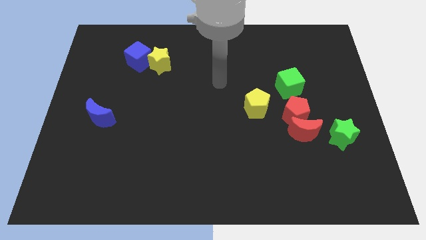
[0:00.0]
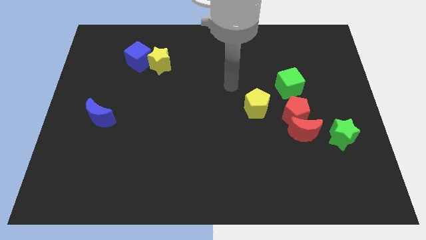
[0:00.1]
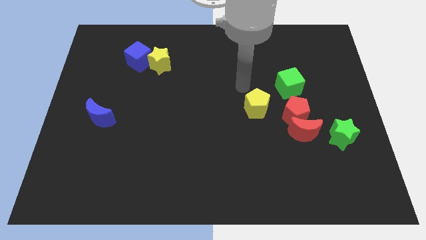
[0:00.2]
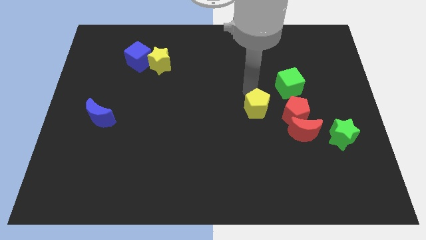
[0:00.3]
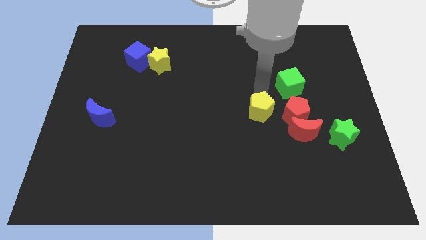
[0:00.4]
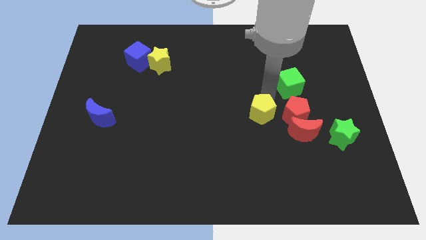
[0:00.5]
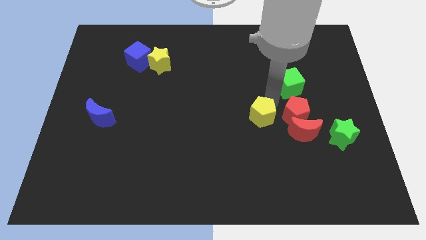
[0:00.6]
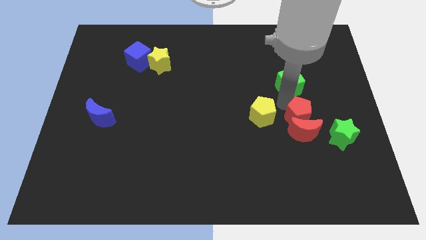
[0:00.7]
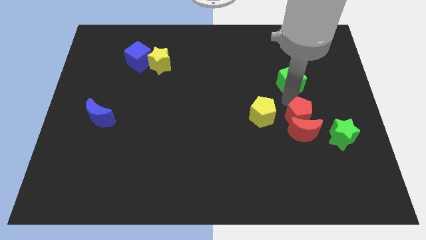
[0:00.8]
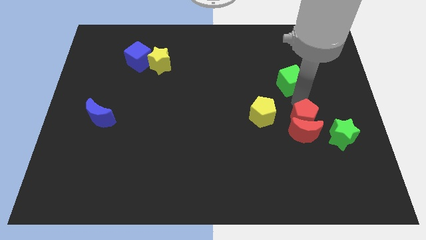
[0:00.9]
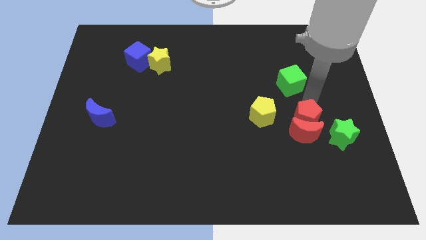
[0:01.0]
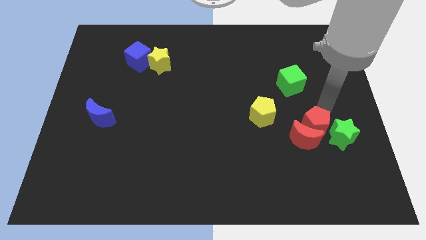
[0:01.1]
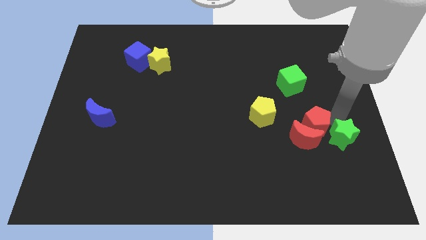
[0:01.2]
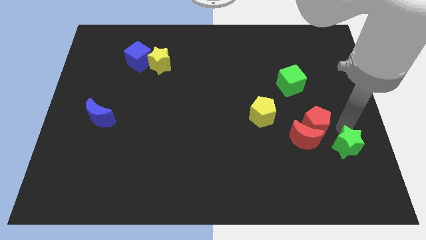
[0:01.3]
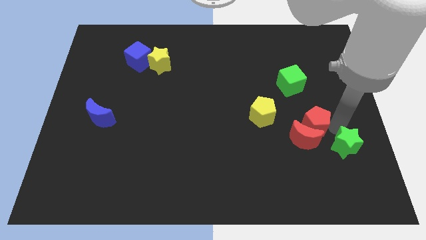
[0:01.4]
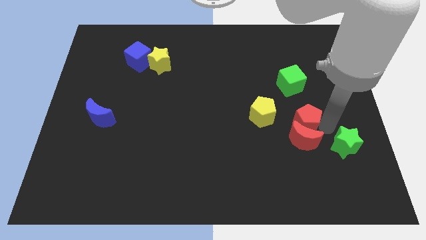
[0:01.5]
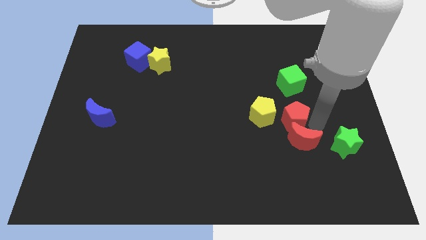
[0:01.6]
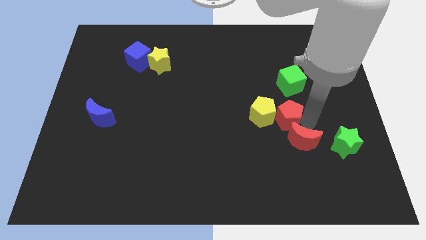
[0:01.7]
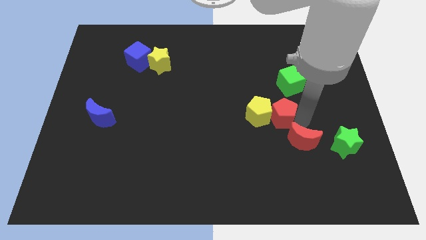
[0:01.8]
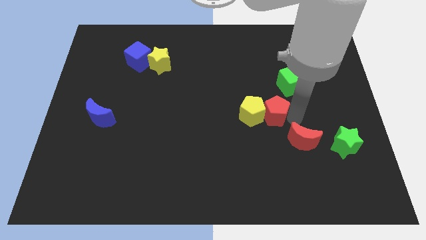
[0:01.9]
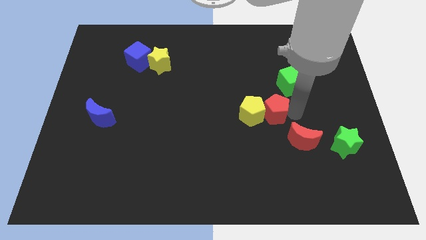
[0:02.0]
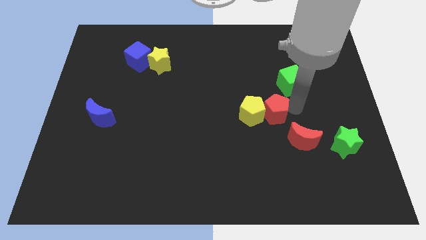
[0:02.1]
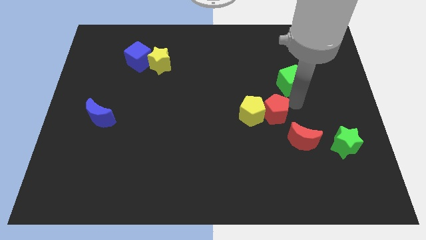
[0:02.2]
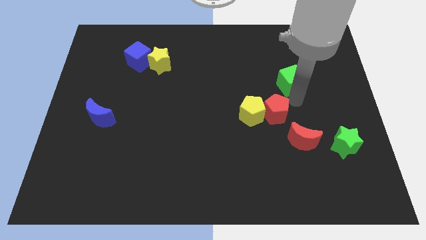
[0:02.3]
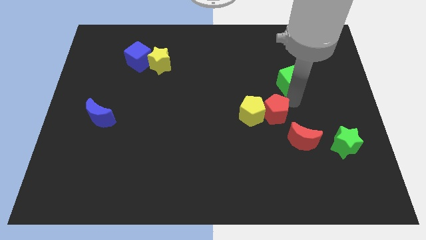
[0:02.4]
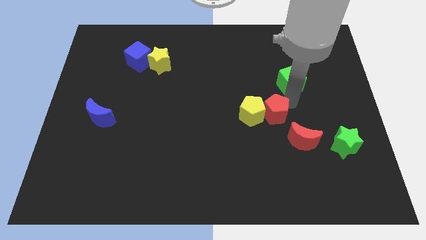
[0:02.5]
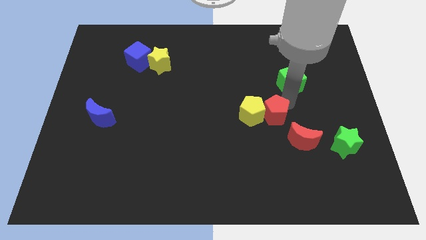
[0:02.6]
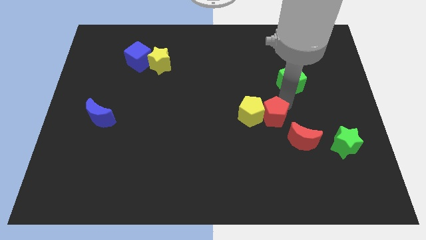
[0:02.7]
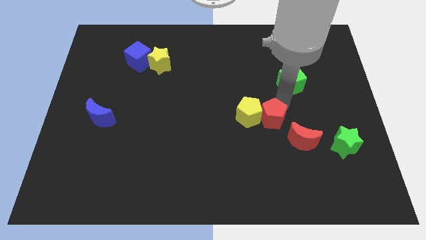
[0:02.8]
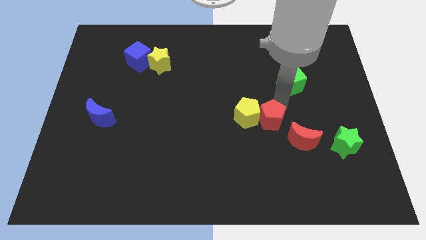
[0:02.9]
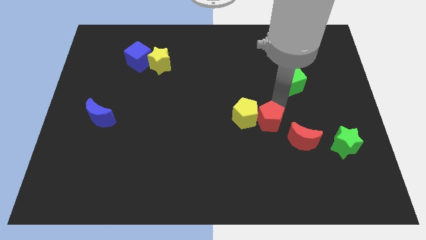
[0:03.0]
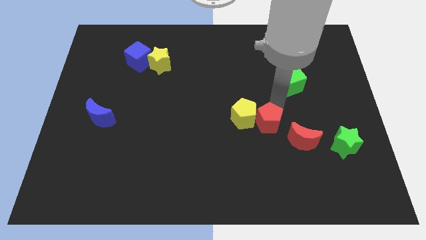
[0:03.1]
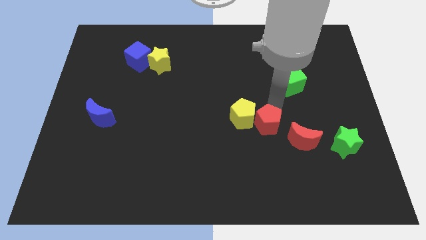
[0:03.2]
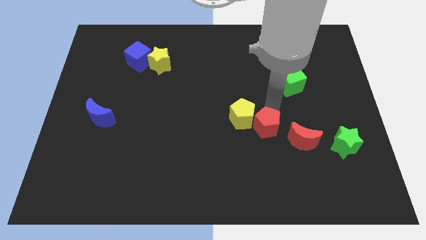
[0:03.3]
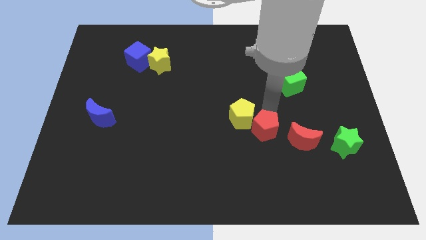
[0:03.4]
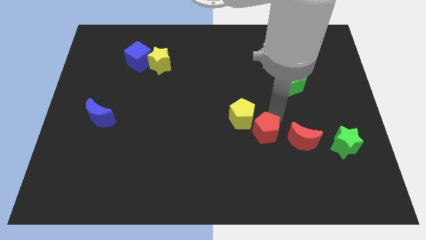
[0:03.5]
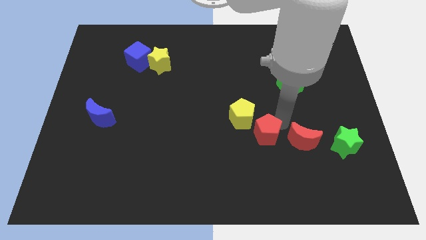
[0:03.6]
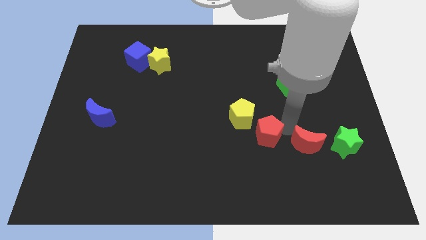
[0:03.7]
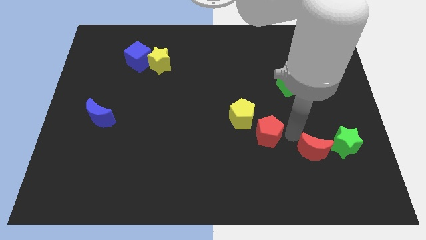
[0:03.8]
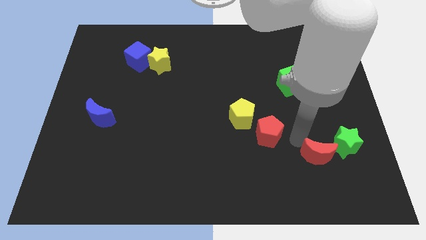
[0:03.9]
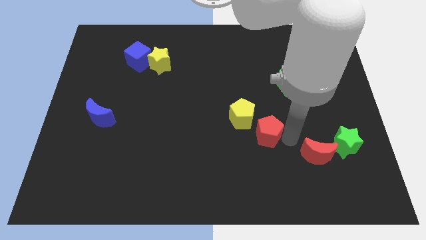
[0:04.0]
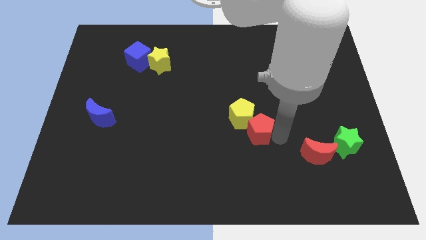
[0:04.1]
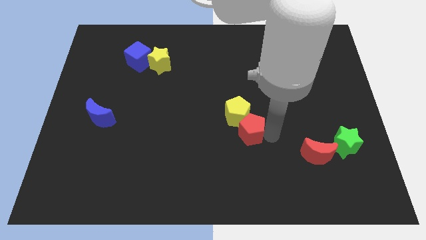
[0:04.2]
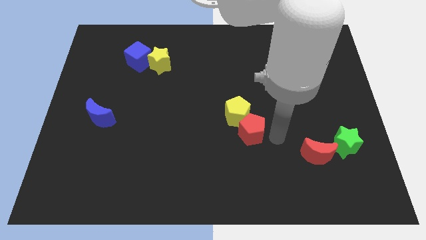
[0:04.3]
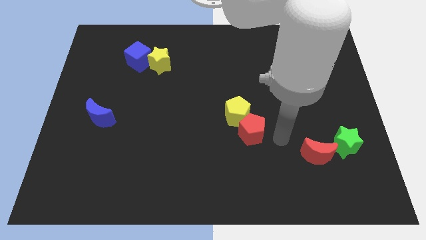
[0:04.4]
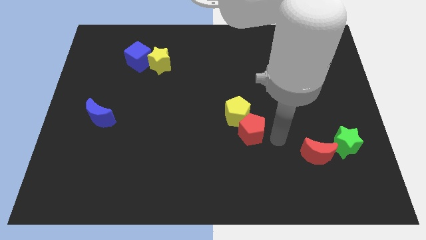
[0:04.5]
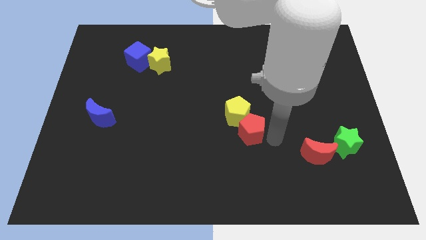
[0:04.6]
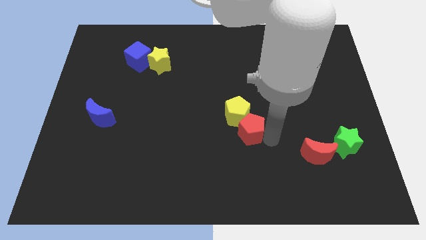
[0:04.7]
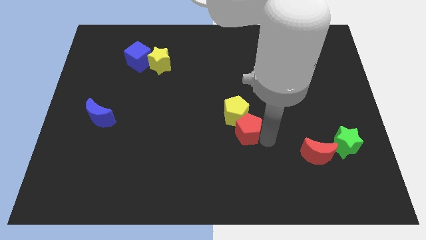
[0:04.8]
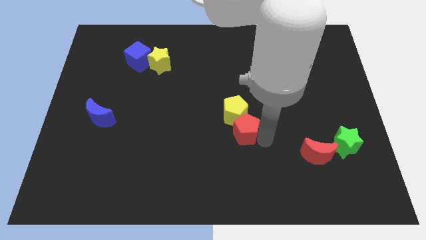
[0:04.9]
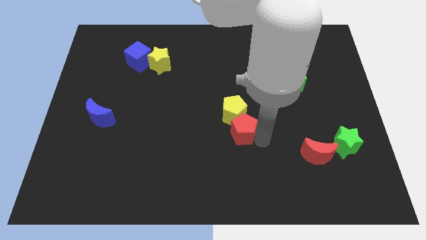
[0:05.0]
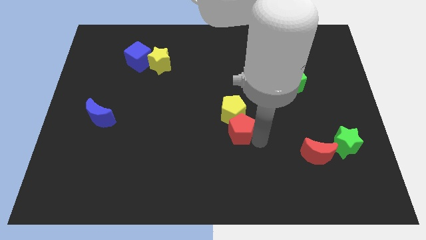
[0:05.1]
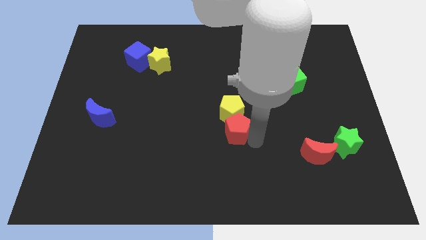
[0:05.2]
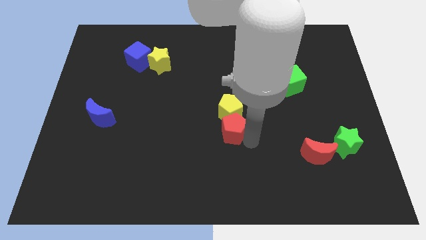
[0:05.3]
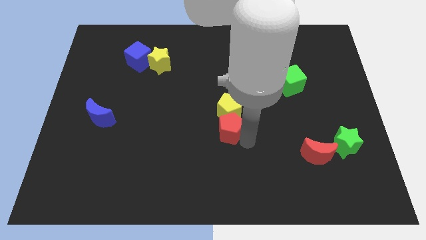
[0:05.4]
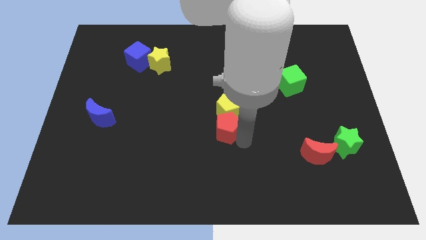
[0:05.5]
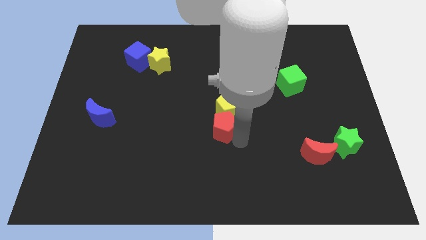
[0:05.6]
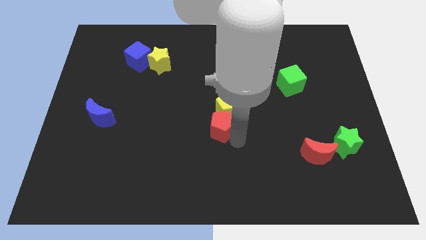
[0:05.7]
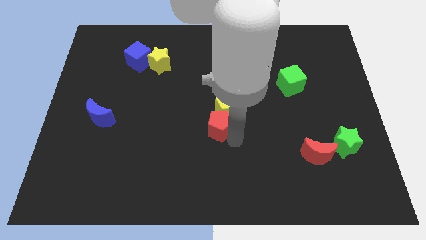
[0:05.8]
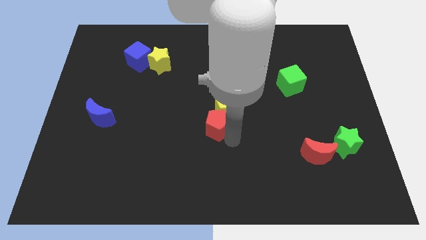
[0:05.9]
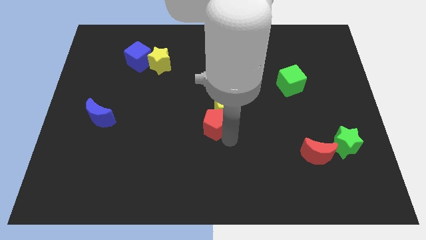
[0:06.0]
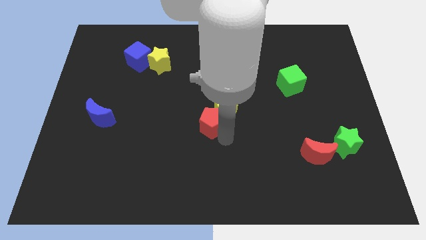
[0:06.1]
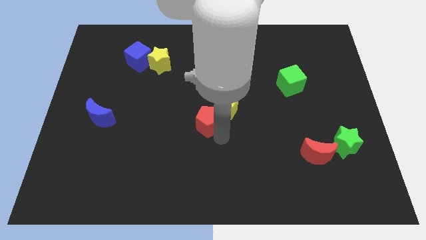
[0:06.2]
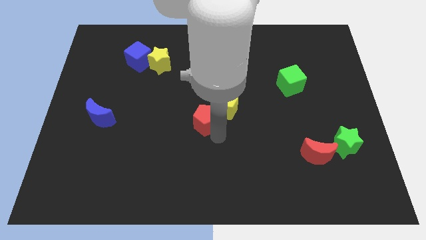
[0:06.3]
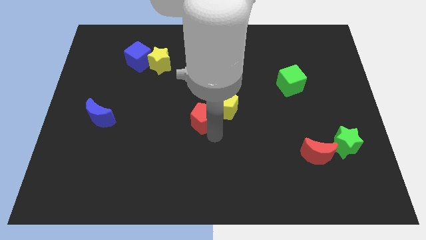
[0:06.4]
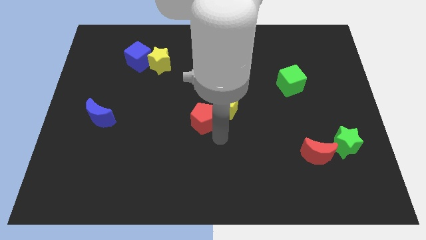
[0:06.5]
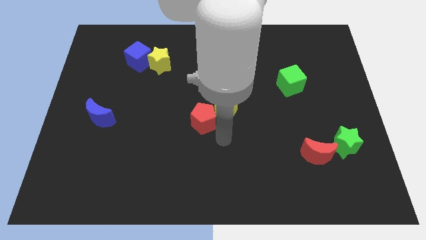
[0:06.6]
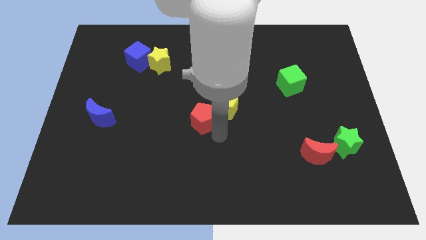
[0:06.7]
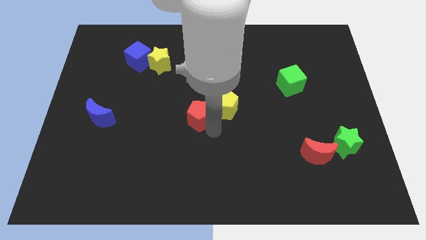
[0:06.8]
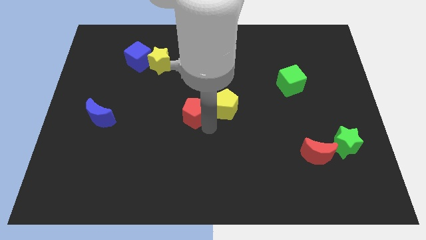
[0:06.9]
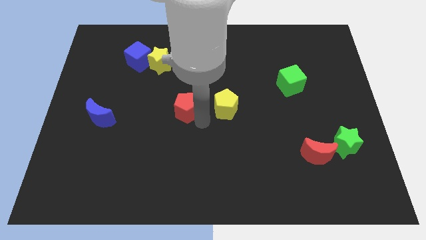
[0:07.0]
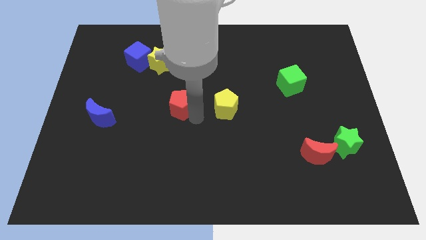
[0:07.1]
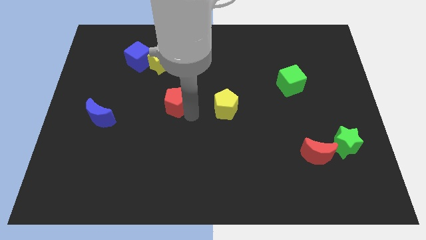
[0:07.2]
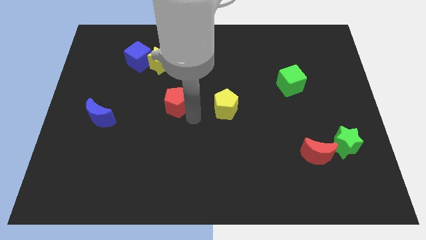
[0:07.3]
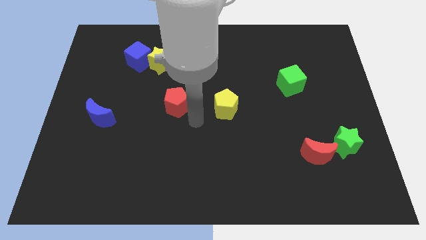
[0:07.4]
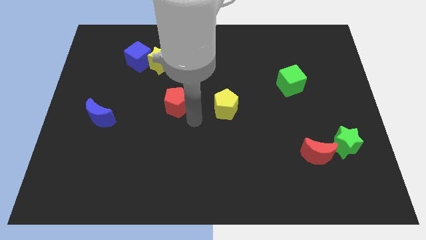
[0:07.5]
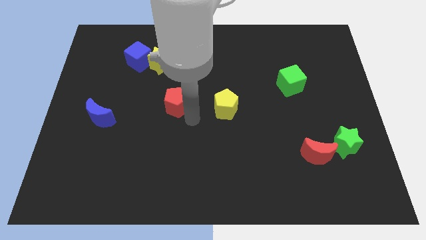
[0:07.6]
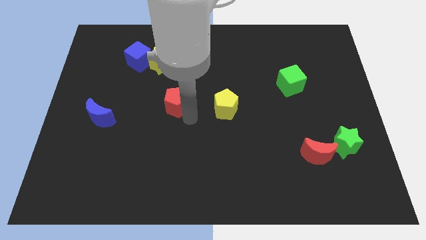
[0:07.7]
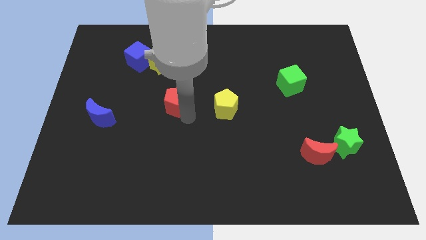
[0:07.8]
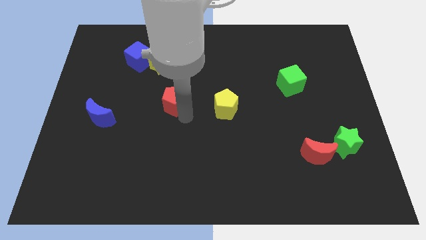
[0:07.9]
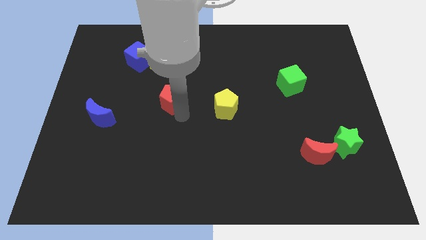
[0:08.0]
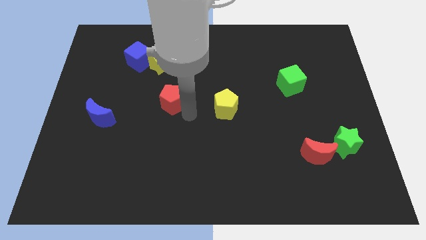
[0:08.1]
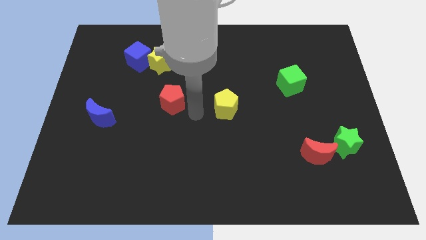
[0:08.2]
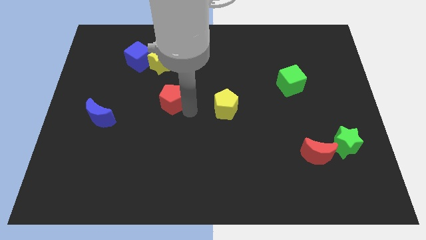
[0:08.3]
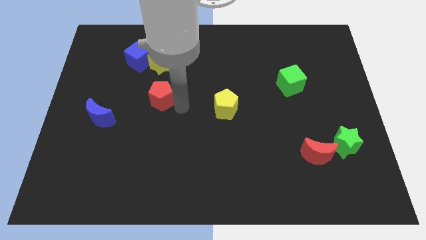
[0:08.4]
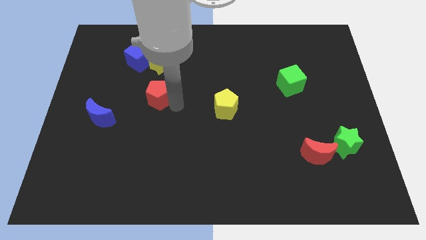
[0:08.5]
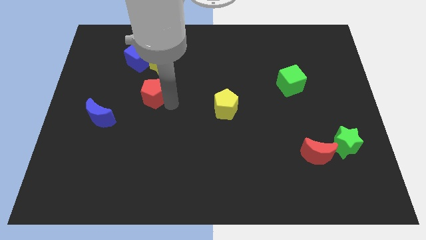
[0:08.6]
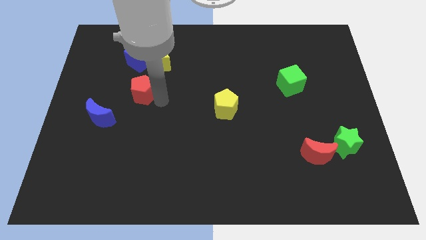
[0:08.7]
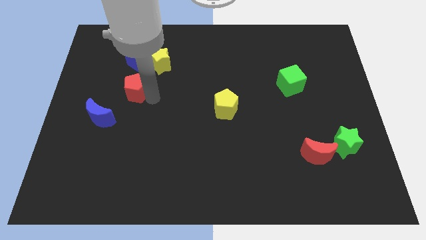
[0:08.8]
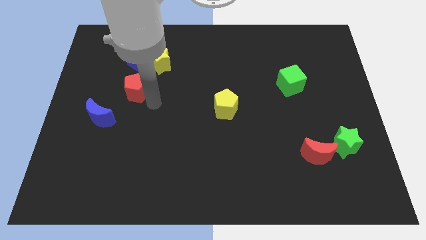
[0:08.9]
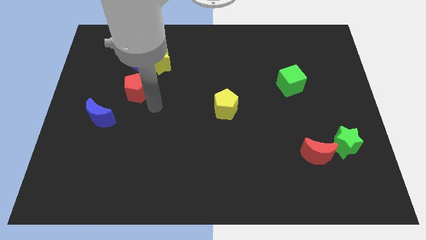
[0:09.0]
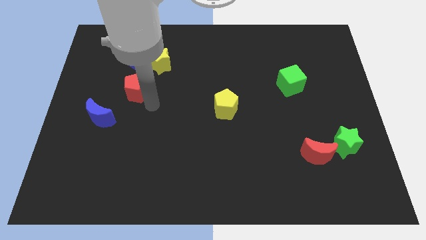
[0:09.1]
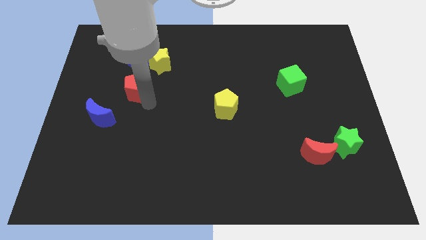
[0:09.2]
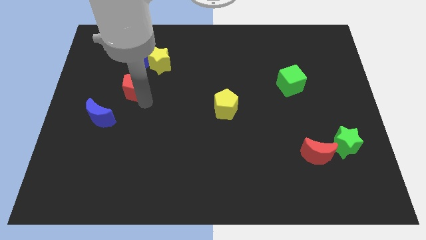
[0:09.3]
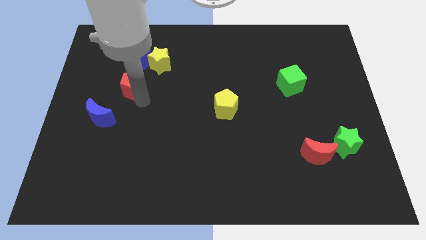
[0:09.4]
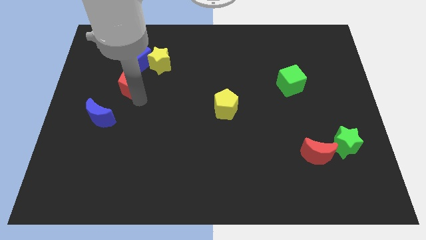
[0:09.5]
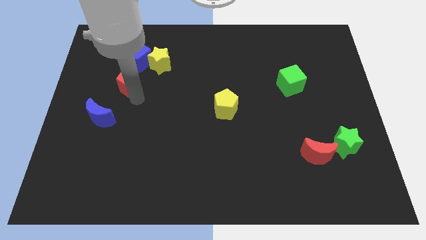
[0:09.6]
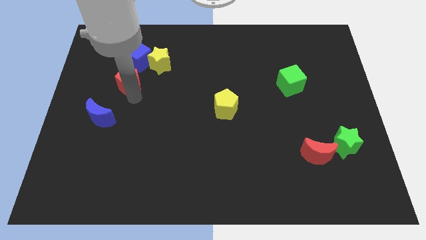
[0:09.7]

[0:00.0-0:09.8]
push the red pentagon diagonally down and to the left of the blue cube
